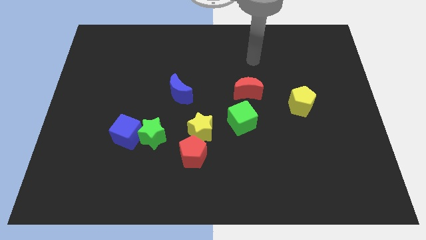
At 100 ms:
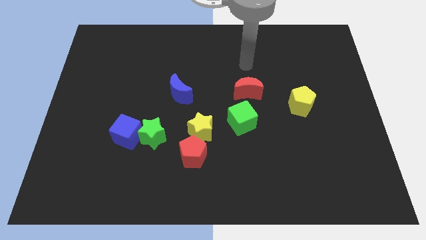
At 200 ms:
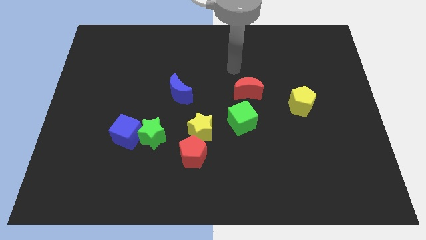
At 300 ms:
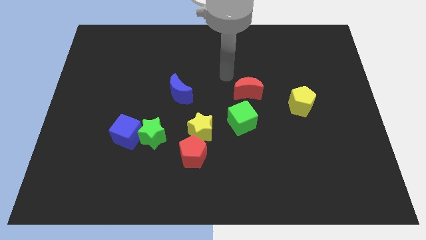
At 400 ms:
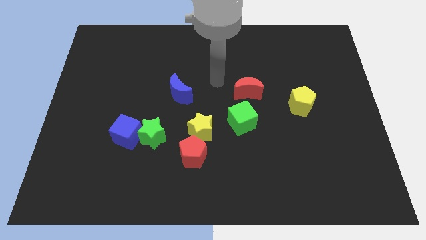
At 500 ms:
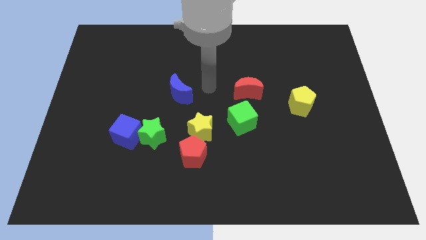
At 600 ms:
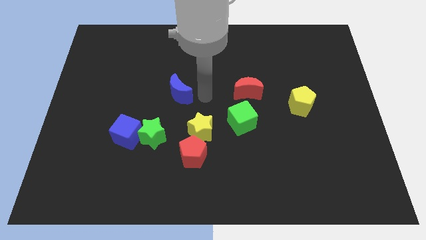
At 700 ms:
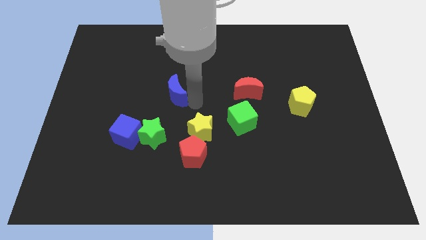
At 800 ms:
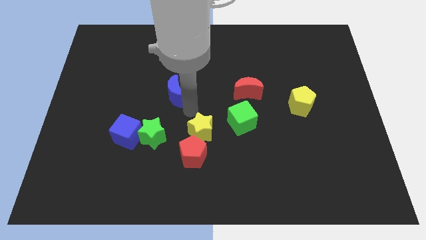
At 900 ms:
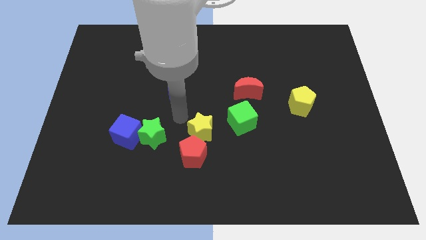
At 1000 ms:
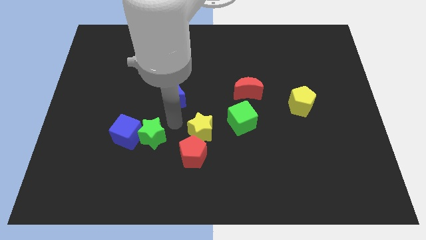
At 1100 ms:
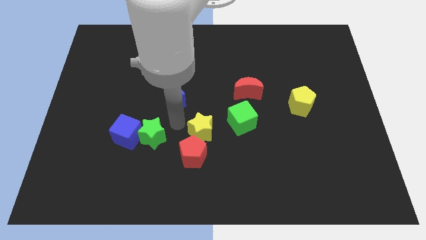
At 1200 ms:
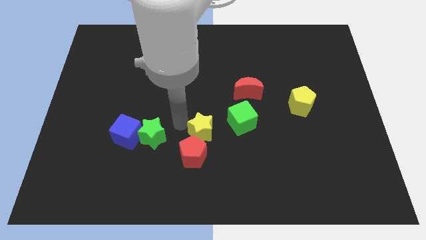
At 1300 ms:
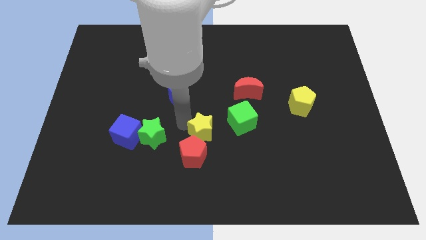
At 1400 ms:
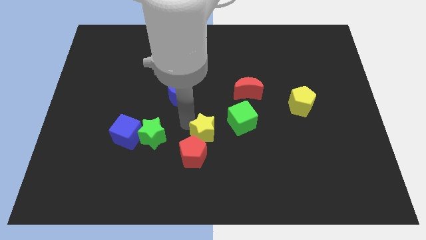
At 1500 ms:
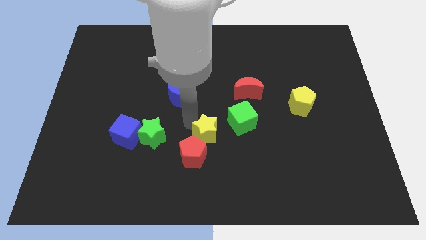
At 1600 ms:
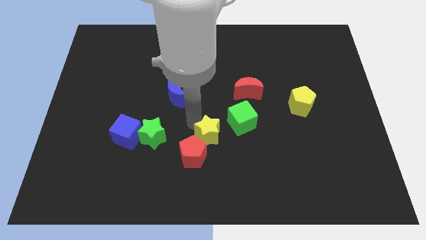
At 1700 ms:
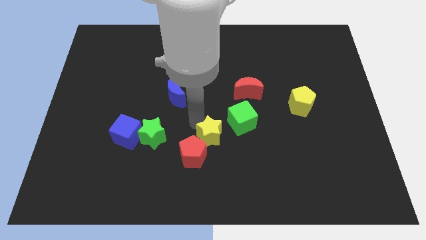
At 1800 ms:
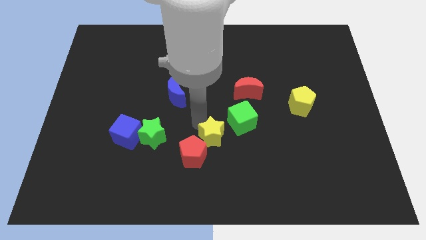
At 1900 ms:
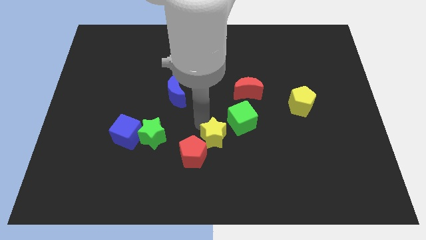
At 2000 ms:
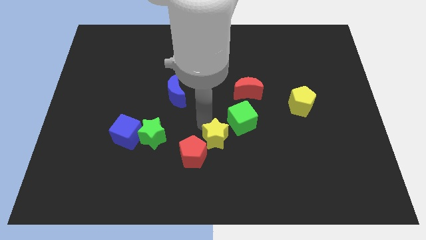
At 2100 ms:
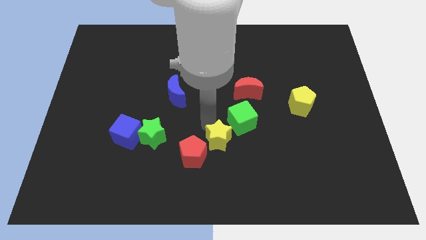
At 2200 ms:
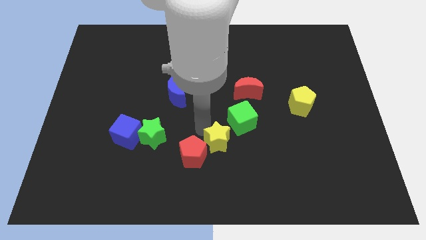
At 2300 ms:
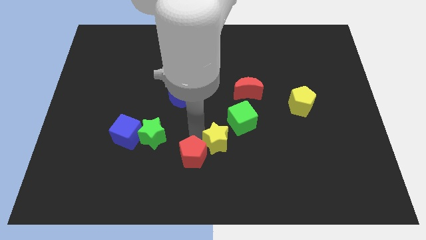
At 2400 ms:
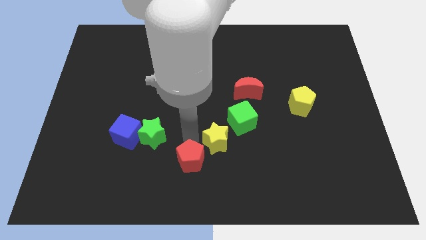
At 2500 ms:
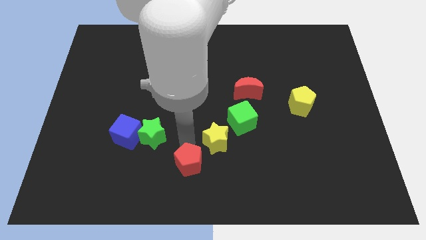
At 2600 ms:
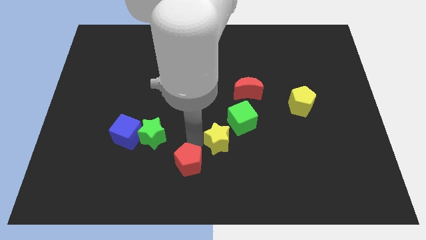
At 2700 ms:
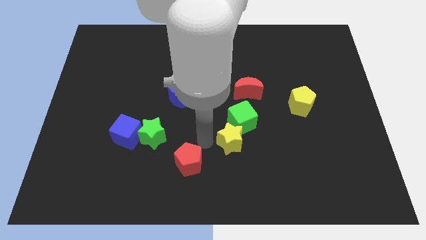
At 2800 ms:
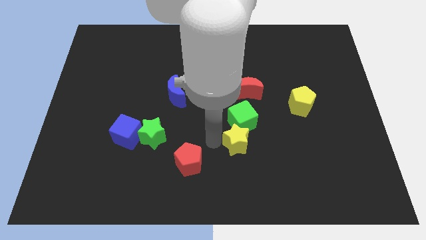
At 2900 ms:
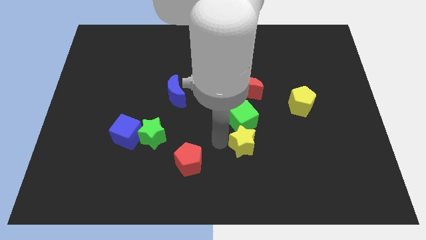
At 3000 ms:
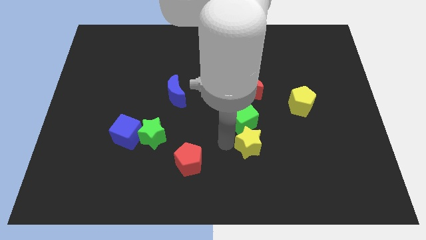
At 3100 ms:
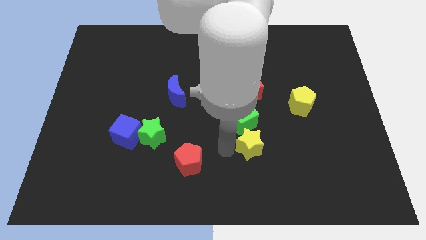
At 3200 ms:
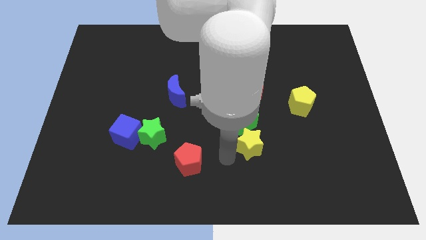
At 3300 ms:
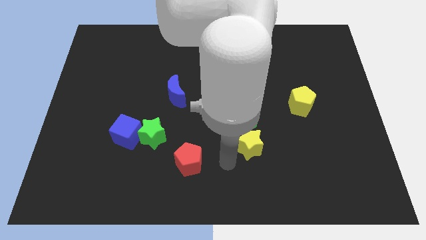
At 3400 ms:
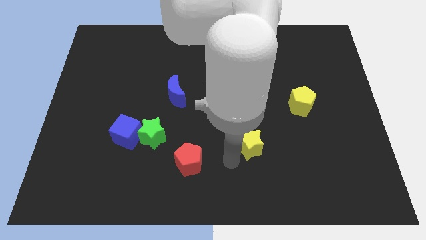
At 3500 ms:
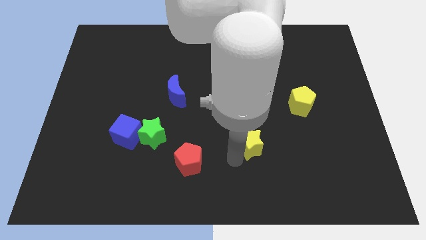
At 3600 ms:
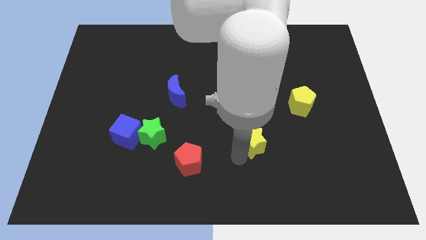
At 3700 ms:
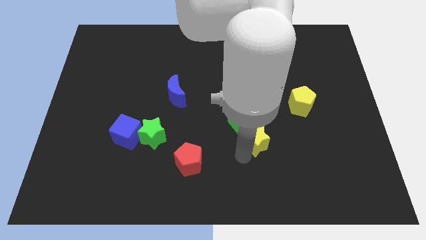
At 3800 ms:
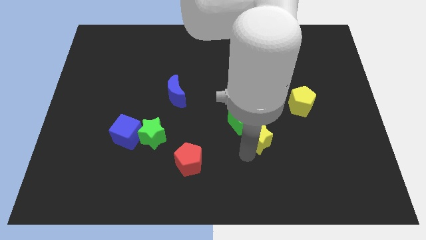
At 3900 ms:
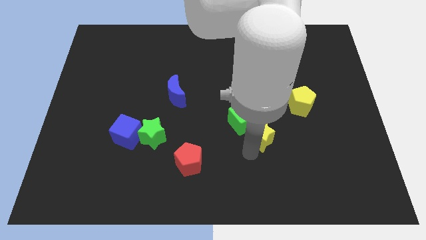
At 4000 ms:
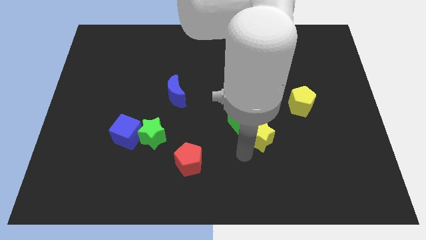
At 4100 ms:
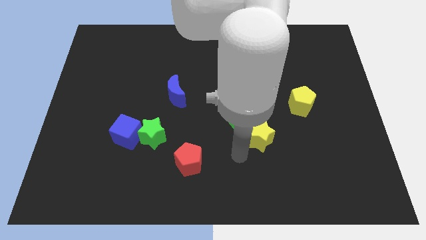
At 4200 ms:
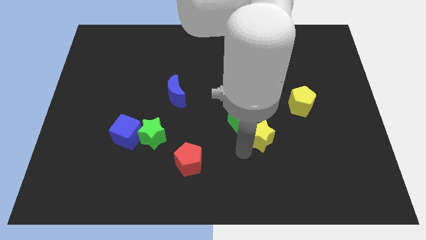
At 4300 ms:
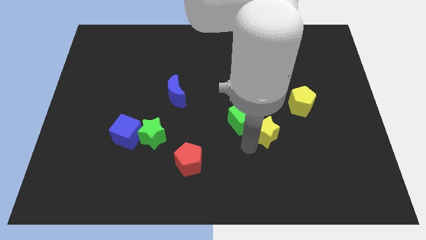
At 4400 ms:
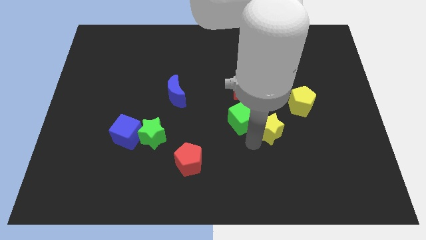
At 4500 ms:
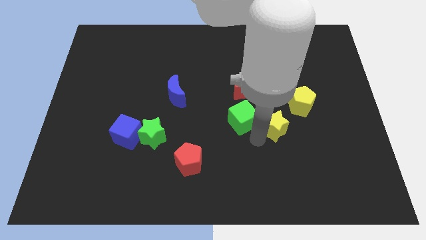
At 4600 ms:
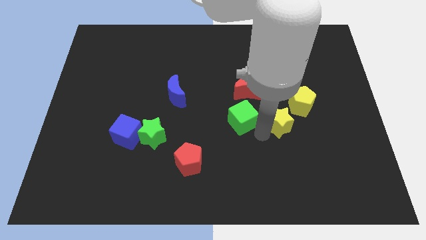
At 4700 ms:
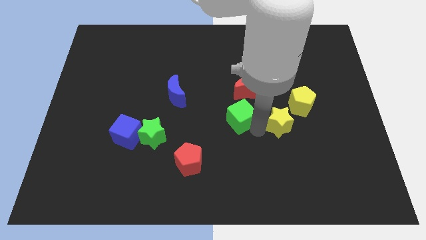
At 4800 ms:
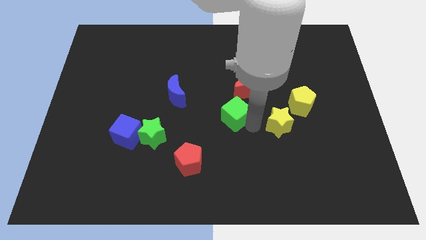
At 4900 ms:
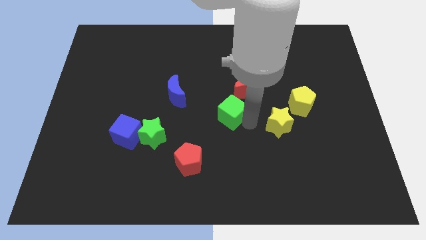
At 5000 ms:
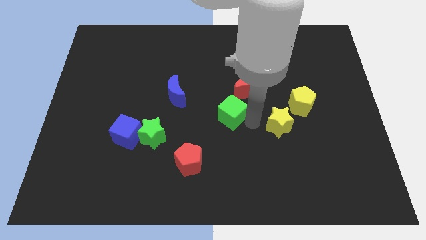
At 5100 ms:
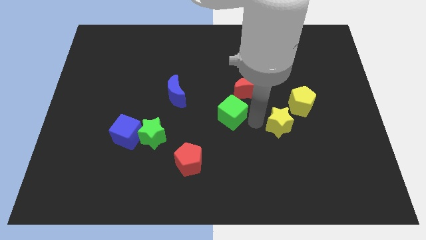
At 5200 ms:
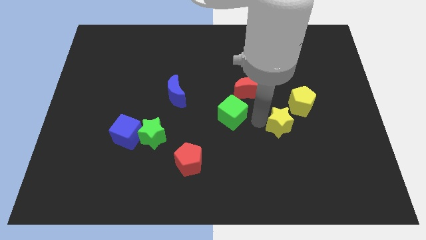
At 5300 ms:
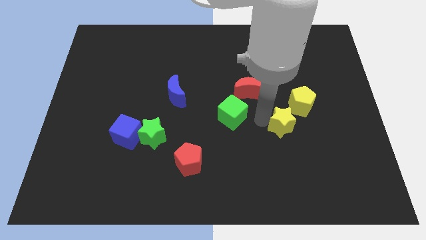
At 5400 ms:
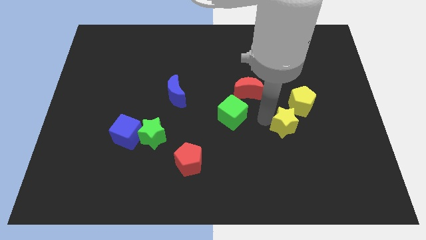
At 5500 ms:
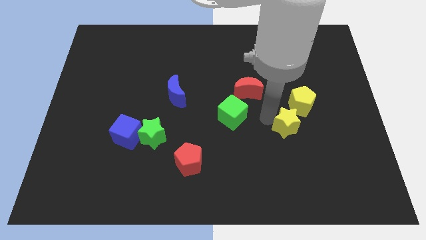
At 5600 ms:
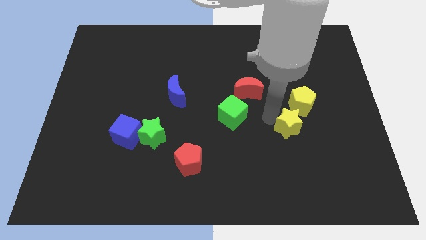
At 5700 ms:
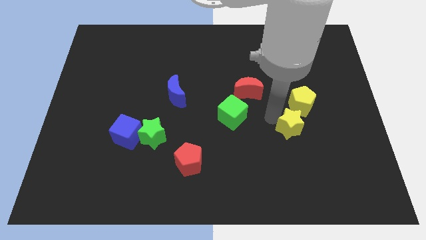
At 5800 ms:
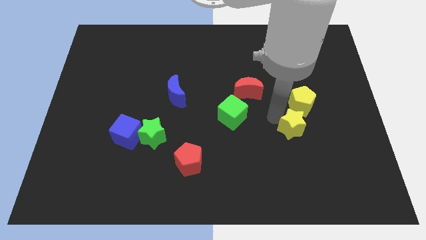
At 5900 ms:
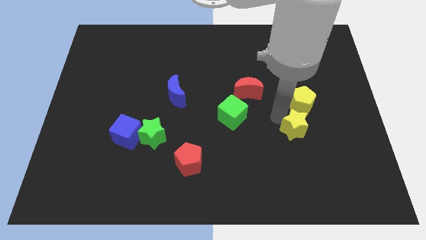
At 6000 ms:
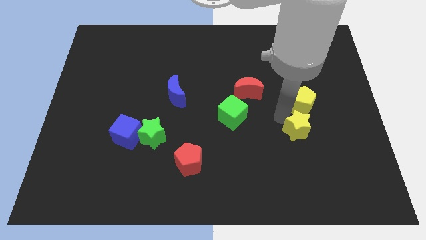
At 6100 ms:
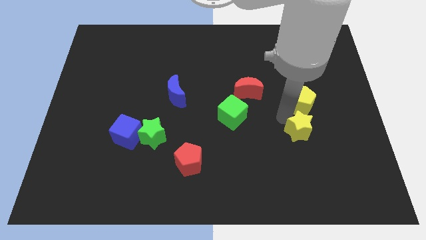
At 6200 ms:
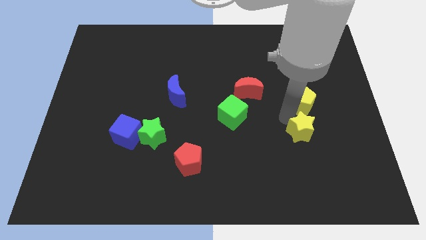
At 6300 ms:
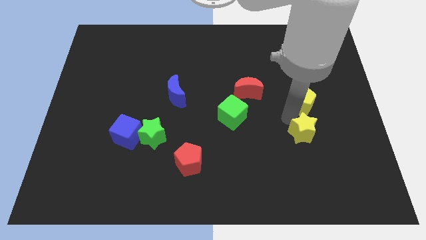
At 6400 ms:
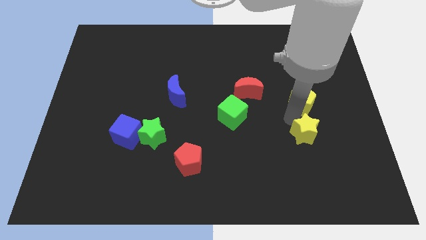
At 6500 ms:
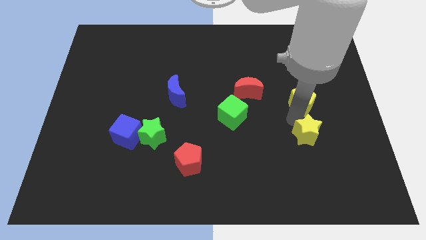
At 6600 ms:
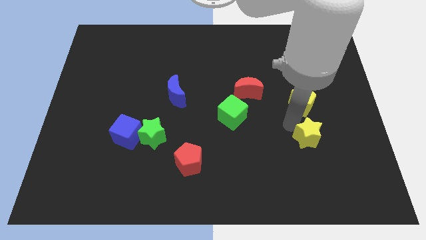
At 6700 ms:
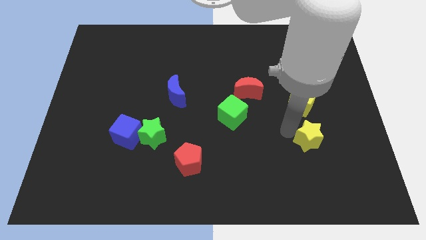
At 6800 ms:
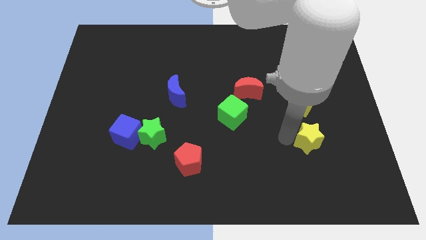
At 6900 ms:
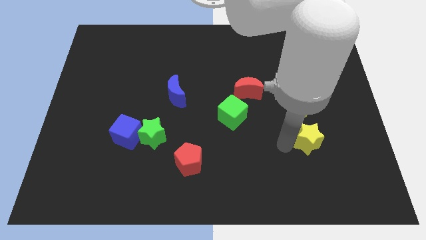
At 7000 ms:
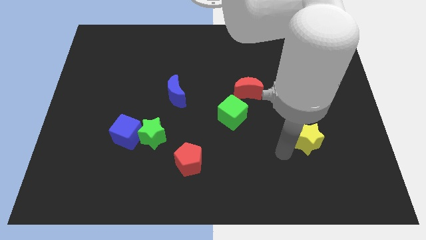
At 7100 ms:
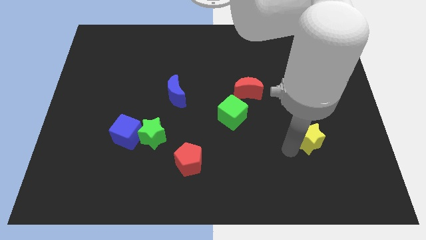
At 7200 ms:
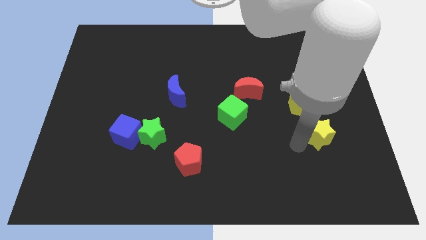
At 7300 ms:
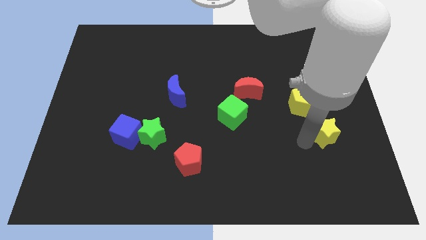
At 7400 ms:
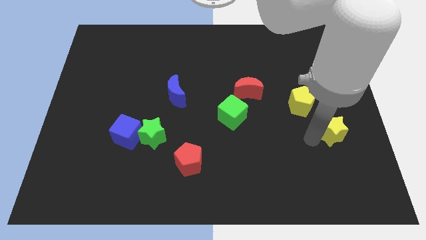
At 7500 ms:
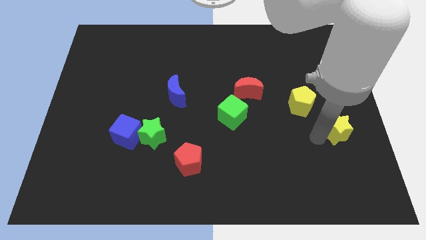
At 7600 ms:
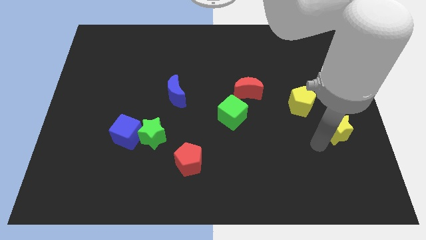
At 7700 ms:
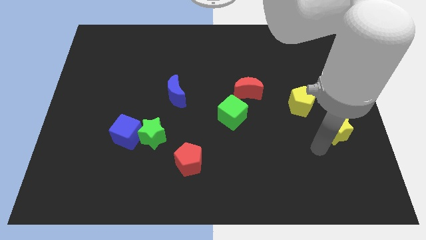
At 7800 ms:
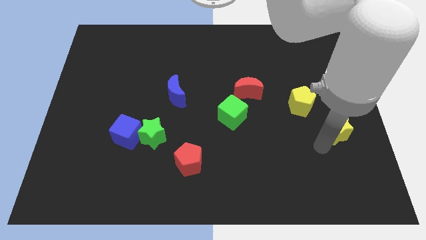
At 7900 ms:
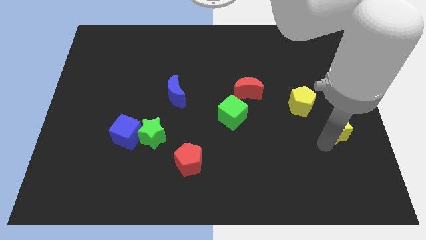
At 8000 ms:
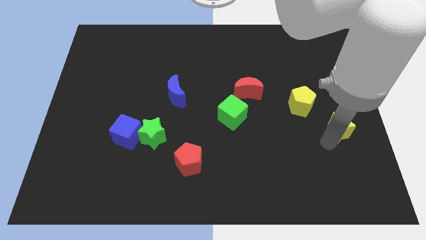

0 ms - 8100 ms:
put the yellow star to the right side
